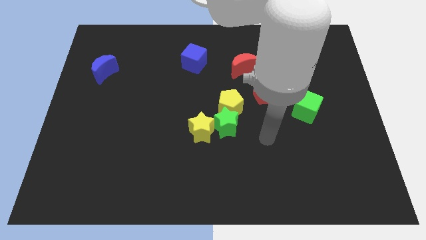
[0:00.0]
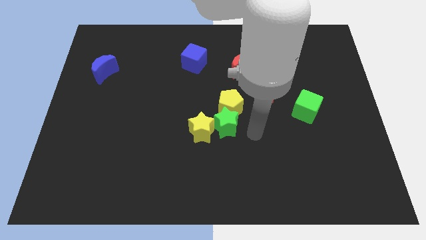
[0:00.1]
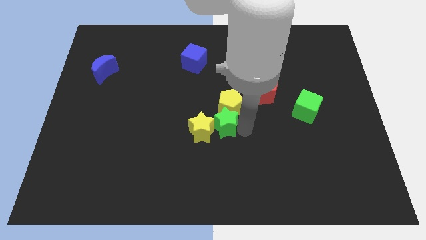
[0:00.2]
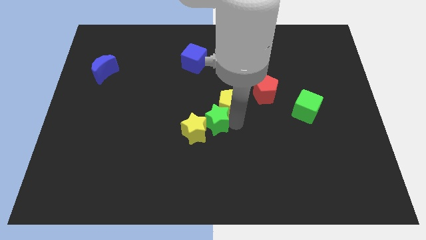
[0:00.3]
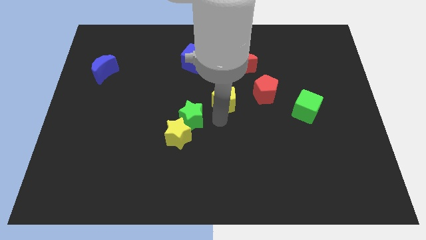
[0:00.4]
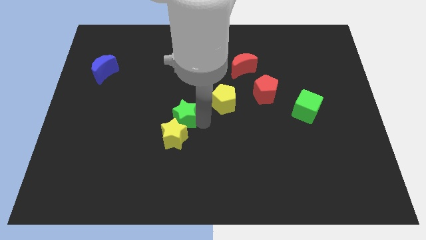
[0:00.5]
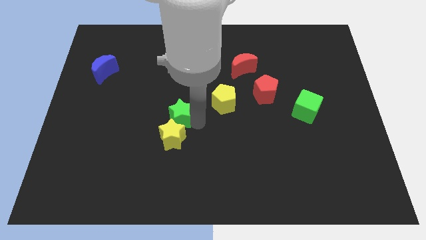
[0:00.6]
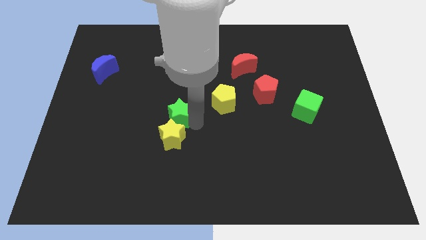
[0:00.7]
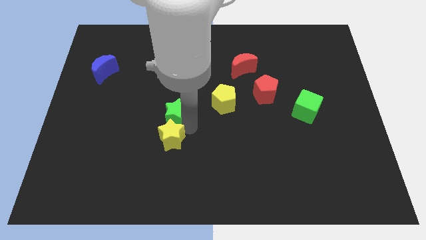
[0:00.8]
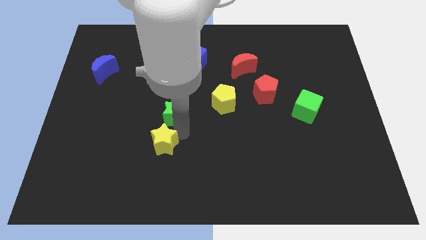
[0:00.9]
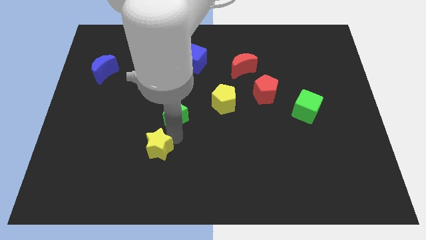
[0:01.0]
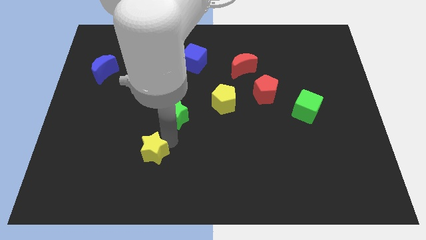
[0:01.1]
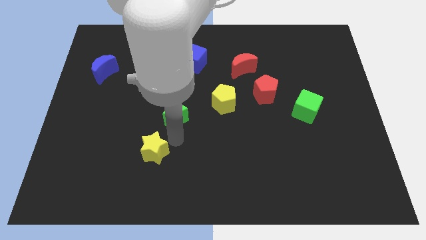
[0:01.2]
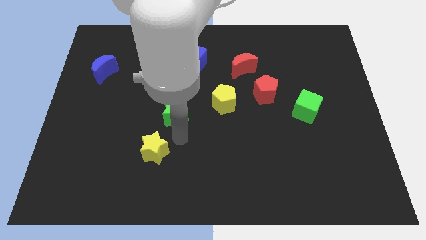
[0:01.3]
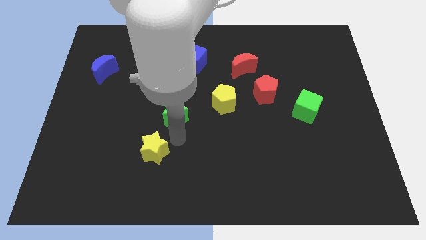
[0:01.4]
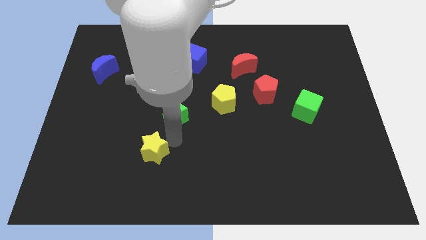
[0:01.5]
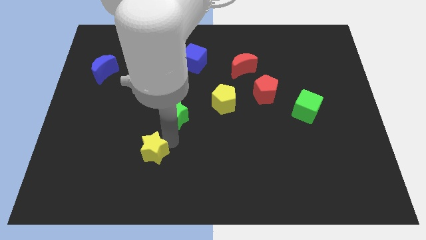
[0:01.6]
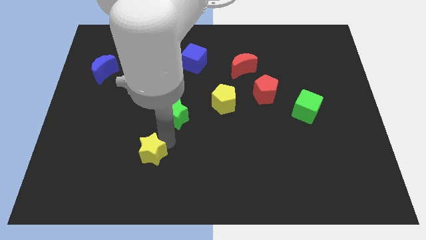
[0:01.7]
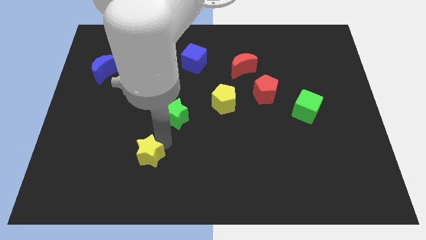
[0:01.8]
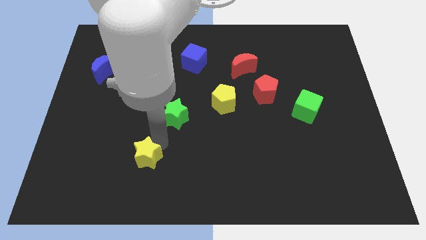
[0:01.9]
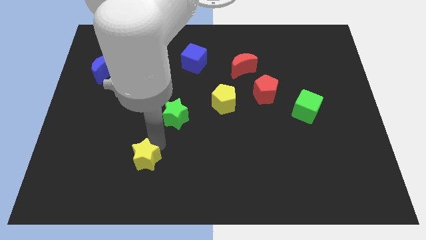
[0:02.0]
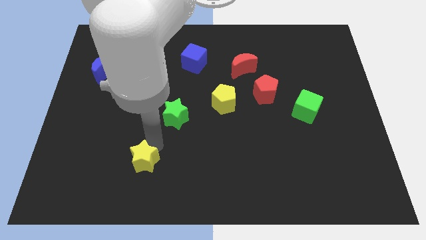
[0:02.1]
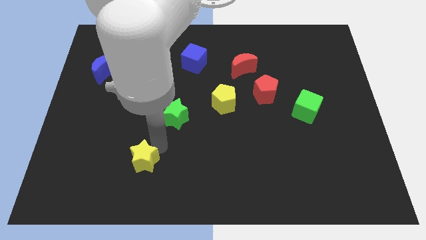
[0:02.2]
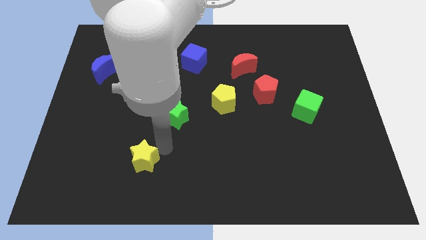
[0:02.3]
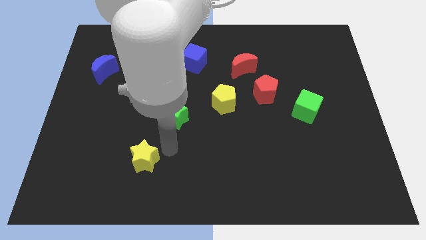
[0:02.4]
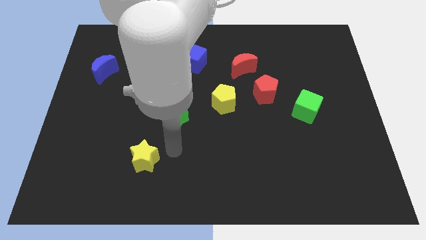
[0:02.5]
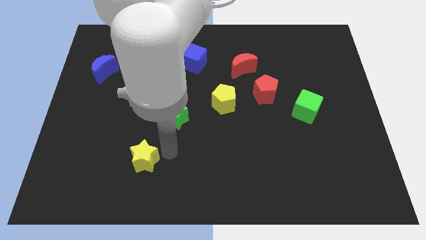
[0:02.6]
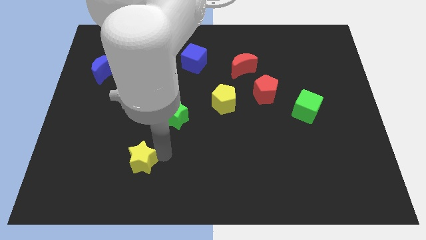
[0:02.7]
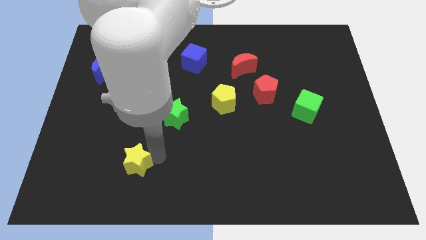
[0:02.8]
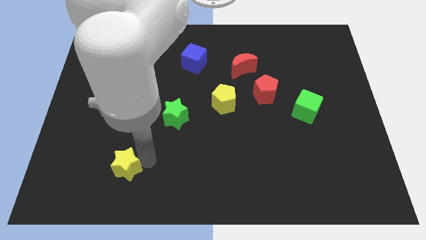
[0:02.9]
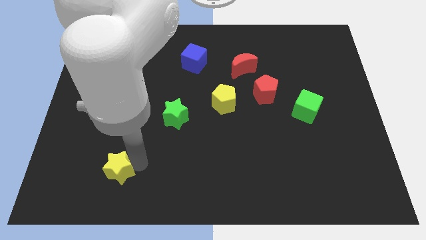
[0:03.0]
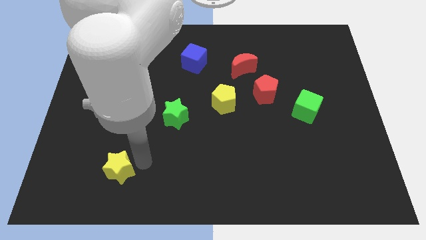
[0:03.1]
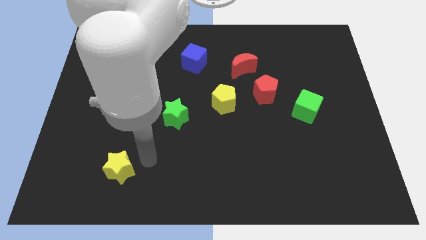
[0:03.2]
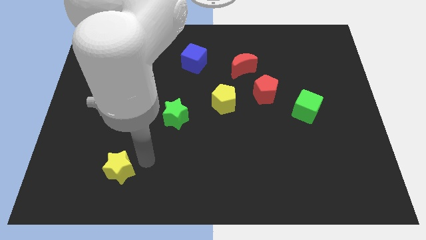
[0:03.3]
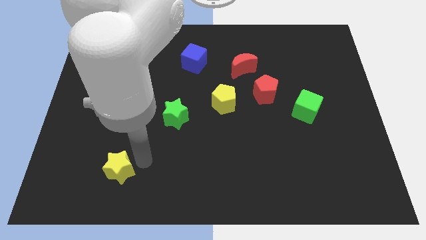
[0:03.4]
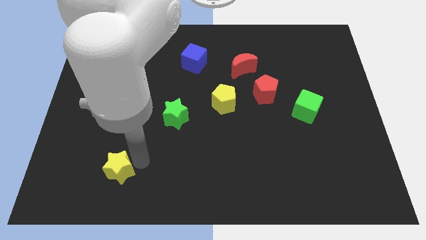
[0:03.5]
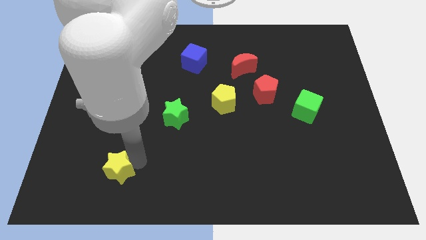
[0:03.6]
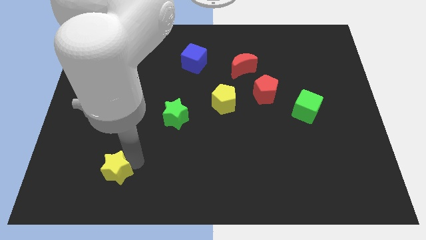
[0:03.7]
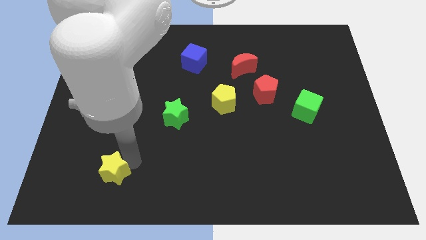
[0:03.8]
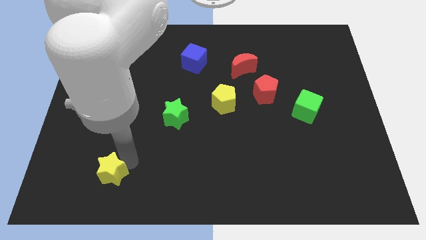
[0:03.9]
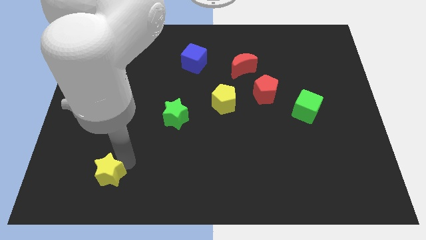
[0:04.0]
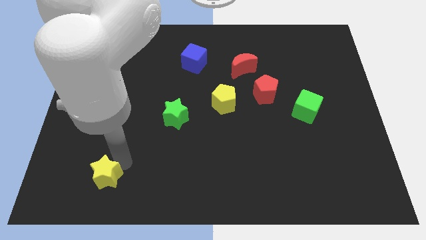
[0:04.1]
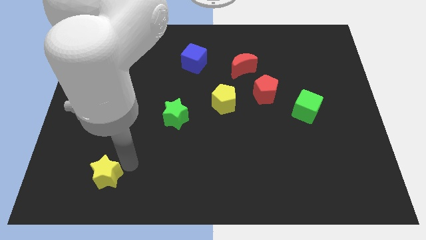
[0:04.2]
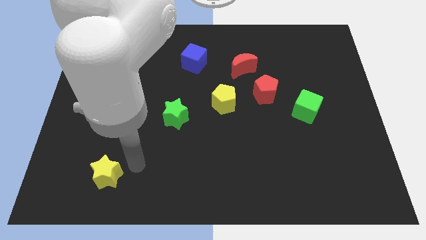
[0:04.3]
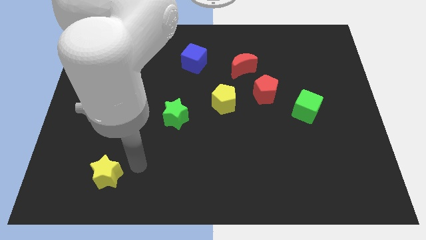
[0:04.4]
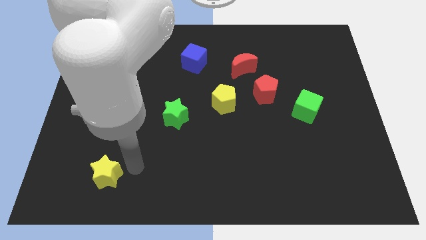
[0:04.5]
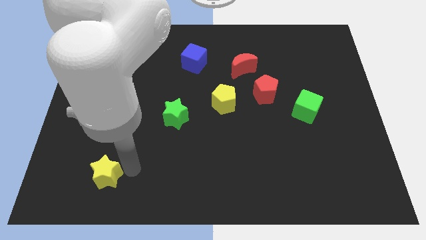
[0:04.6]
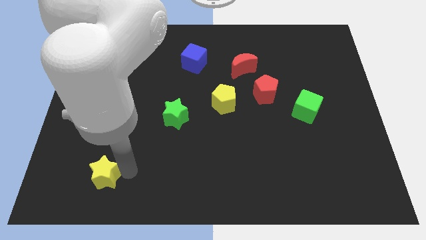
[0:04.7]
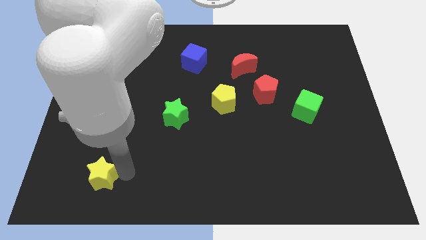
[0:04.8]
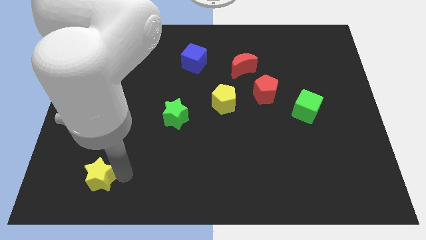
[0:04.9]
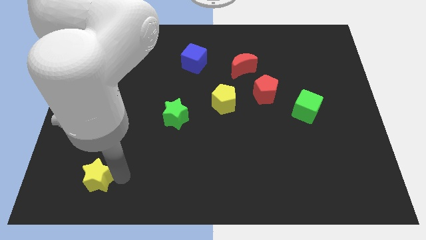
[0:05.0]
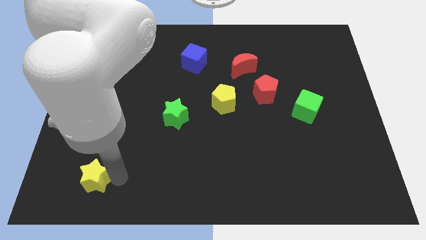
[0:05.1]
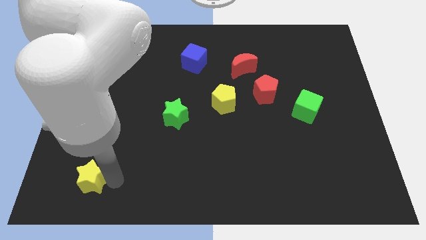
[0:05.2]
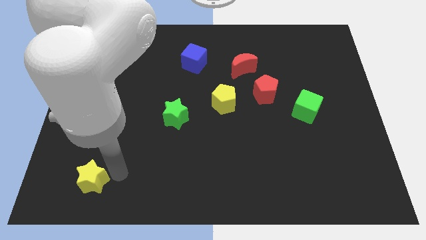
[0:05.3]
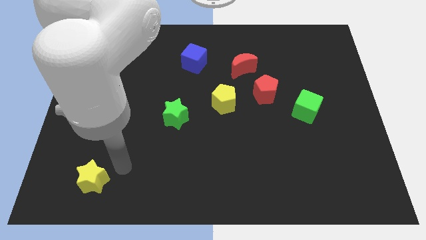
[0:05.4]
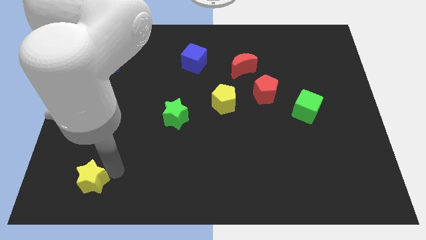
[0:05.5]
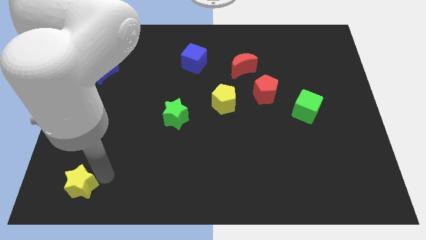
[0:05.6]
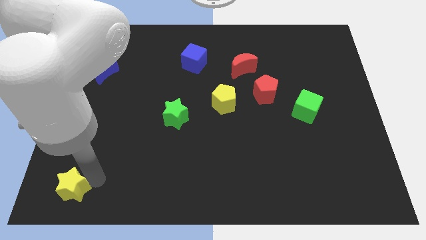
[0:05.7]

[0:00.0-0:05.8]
push the yellow star to the bottom left of the board
